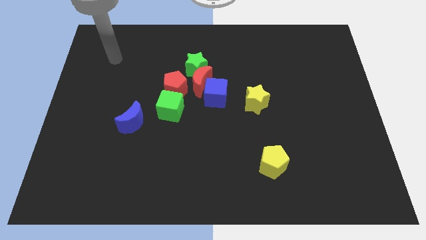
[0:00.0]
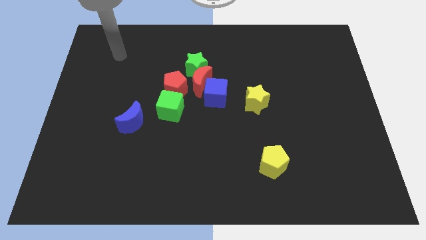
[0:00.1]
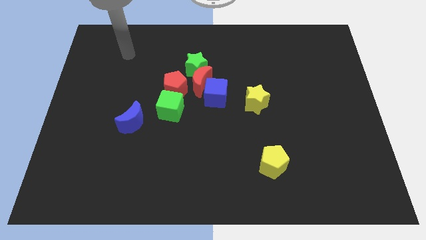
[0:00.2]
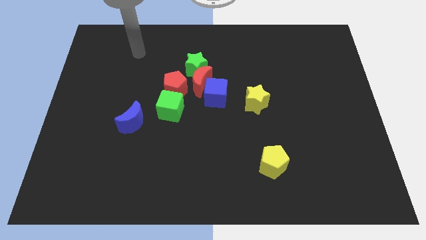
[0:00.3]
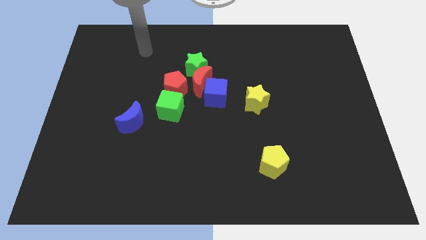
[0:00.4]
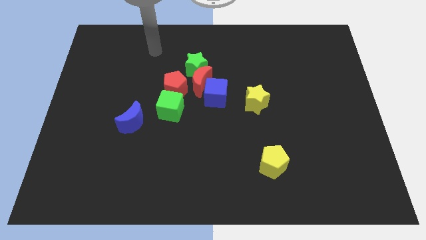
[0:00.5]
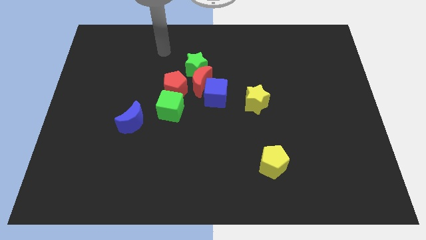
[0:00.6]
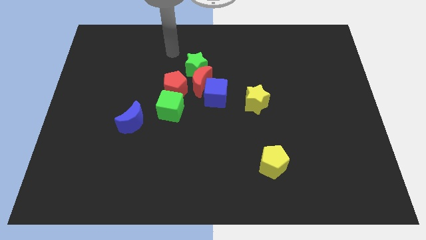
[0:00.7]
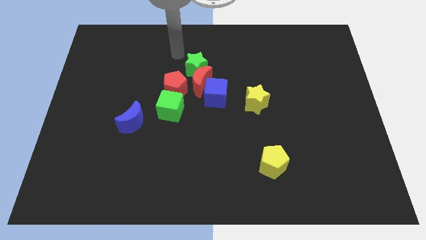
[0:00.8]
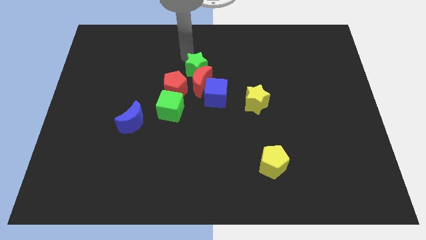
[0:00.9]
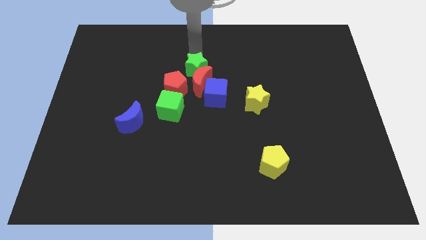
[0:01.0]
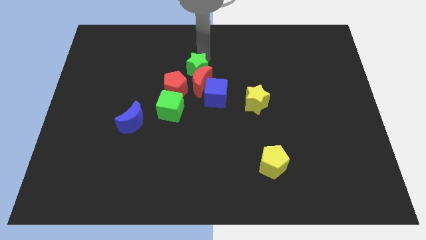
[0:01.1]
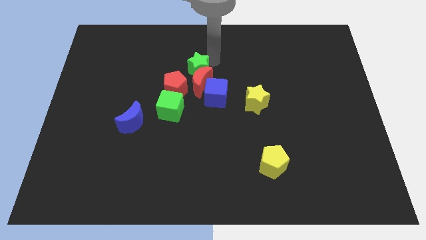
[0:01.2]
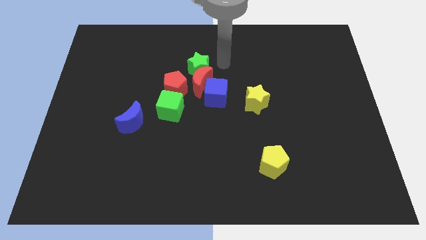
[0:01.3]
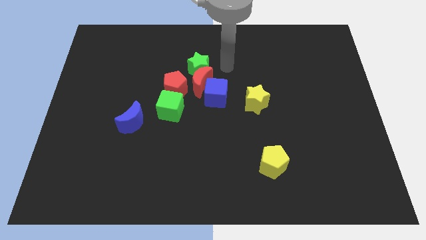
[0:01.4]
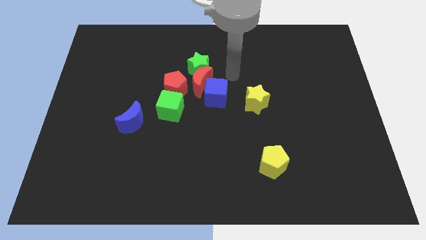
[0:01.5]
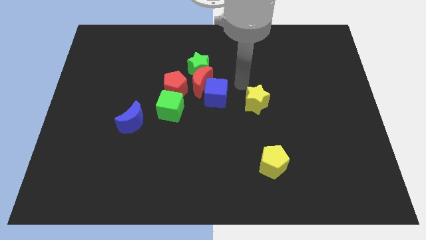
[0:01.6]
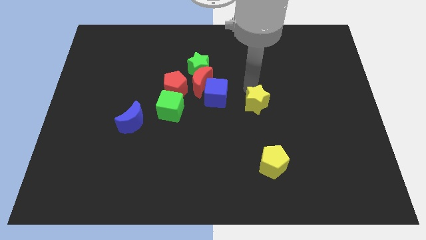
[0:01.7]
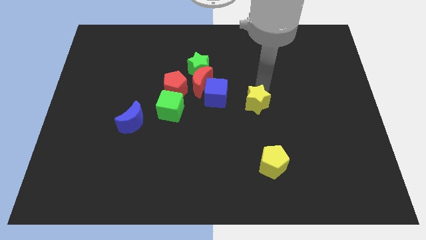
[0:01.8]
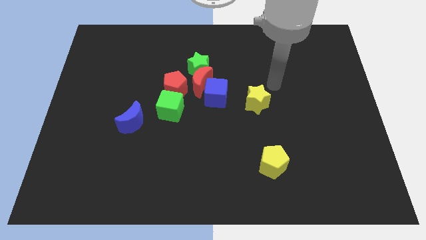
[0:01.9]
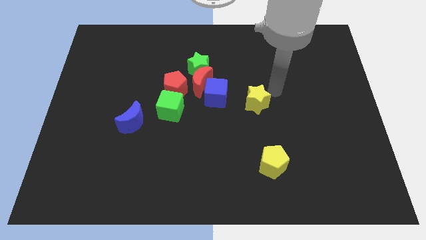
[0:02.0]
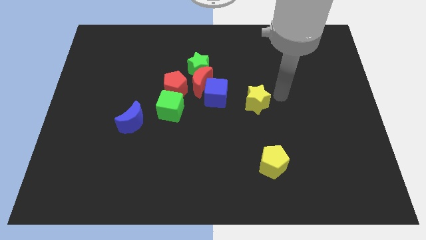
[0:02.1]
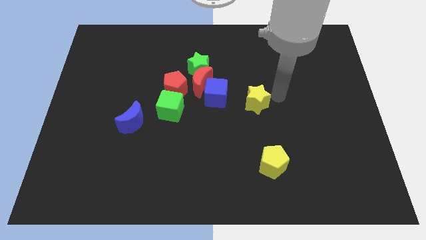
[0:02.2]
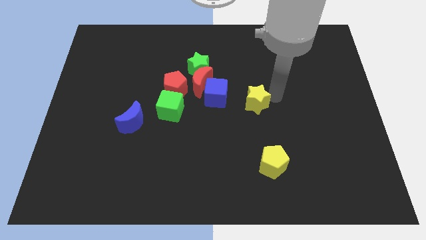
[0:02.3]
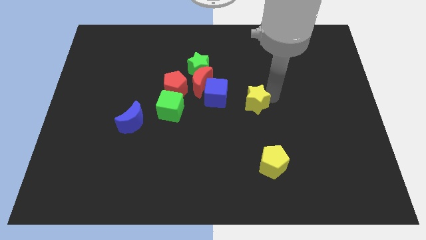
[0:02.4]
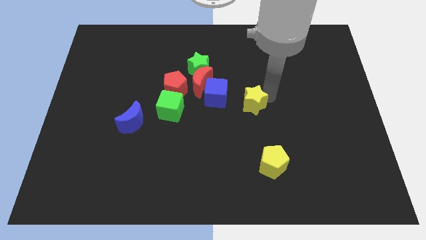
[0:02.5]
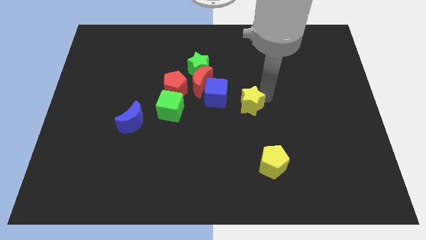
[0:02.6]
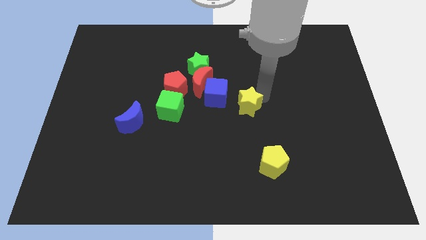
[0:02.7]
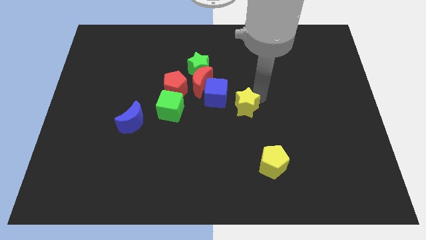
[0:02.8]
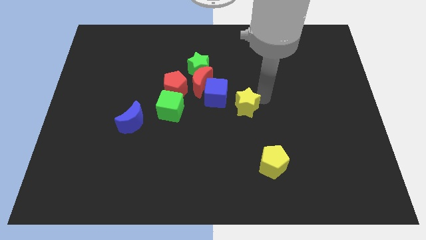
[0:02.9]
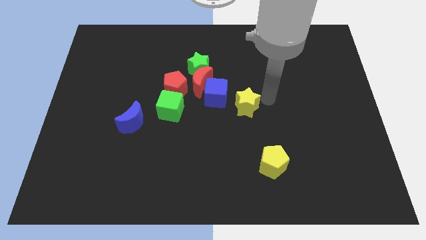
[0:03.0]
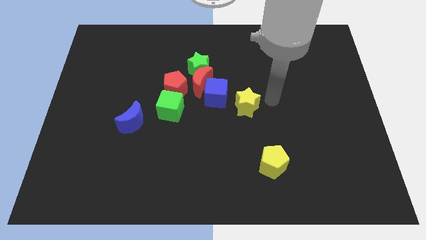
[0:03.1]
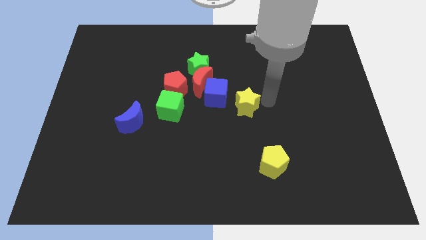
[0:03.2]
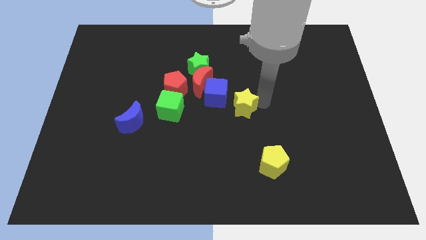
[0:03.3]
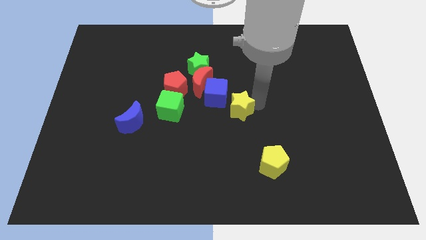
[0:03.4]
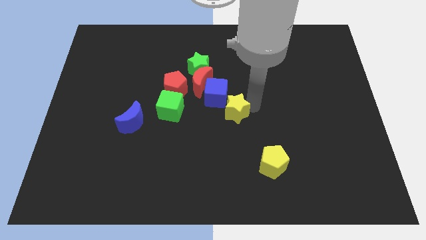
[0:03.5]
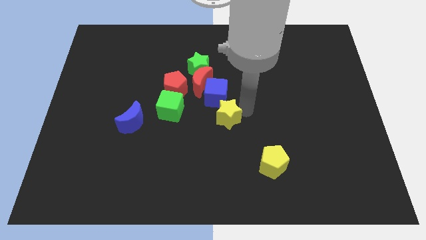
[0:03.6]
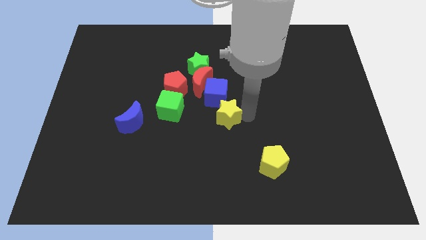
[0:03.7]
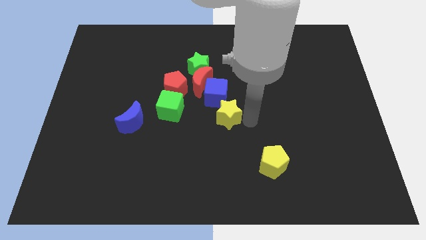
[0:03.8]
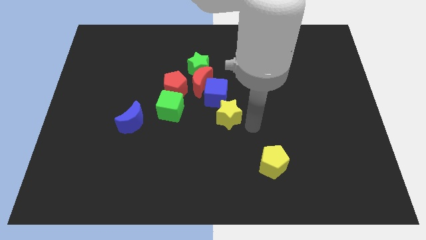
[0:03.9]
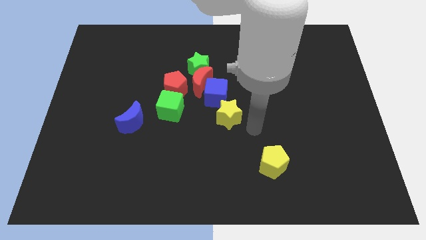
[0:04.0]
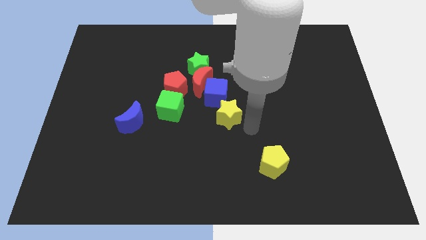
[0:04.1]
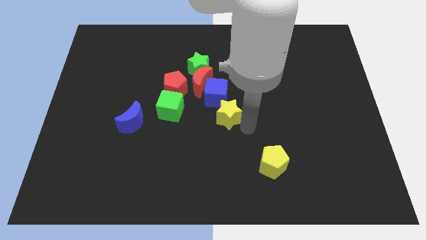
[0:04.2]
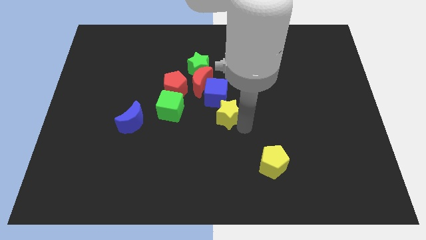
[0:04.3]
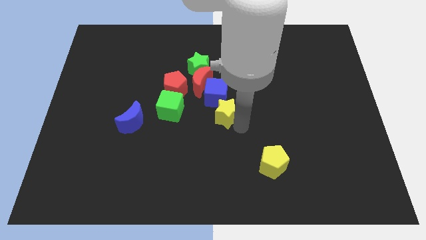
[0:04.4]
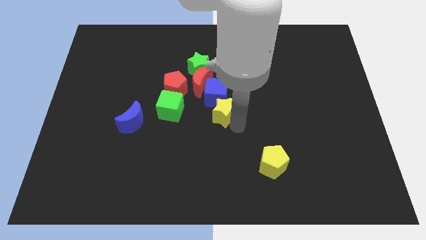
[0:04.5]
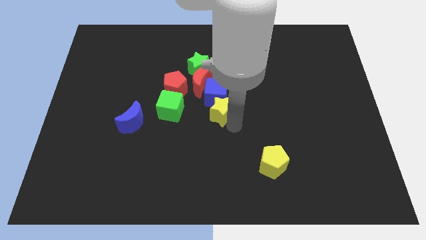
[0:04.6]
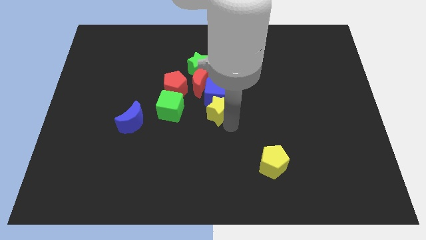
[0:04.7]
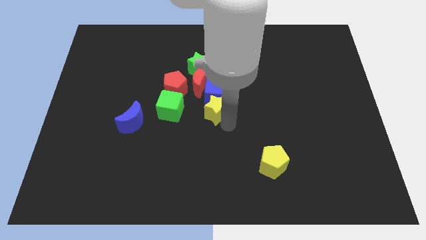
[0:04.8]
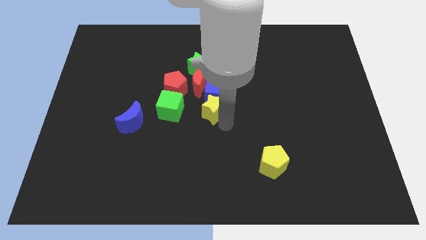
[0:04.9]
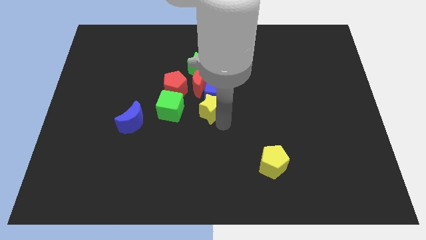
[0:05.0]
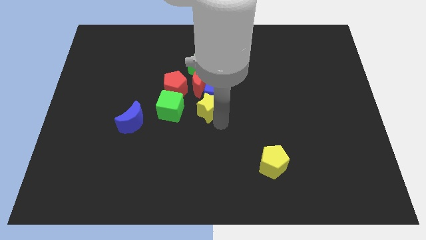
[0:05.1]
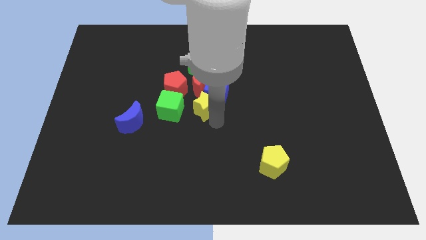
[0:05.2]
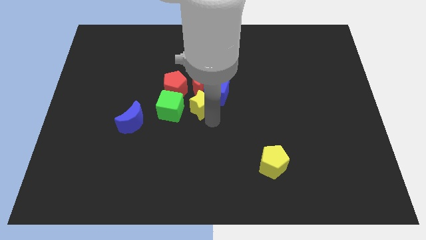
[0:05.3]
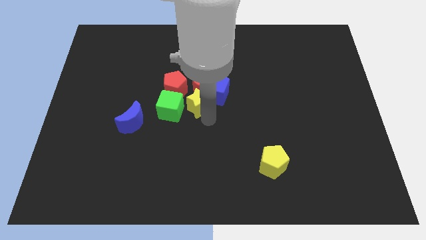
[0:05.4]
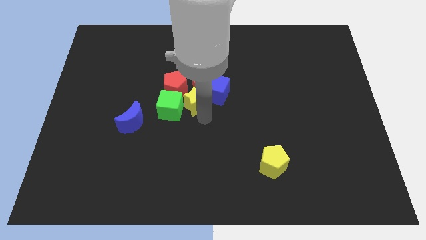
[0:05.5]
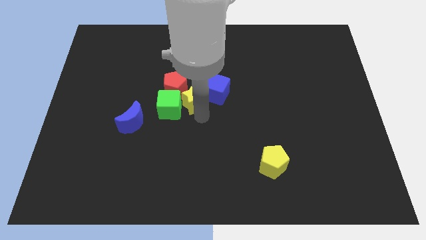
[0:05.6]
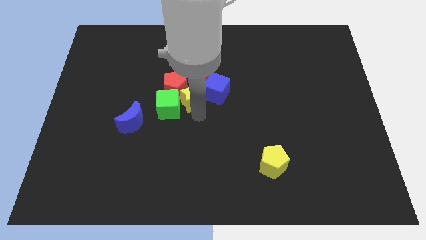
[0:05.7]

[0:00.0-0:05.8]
push the yellow star next to the red pentagon
